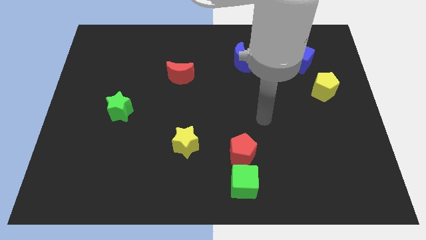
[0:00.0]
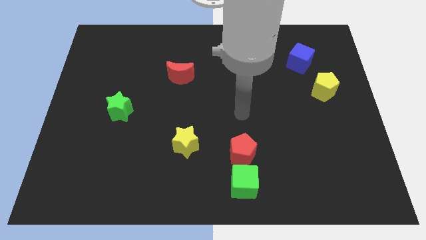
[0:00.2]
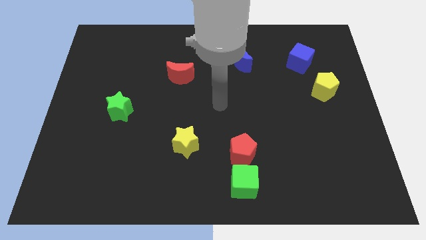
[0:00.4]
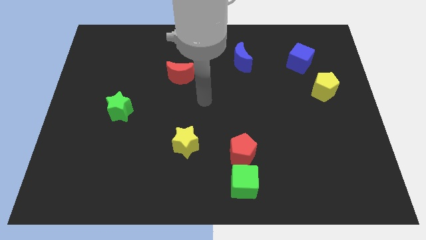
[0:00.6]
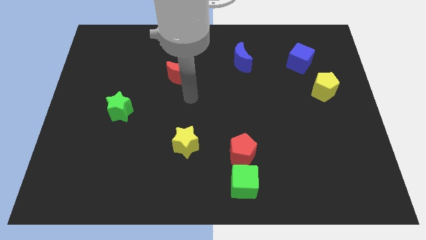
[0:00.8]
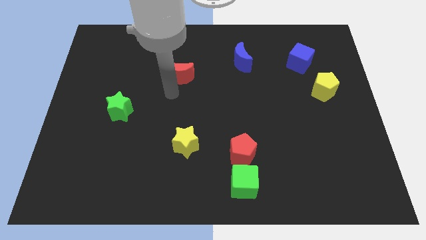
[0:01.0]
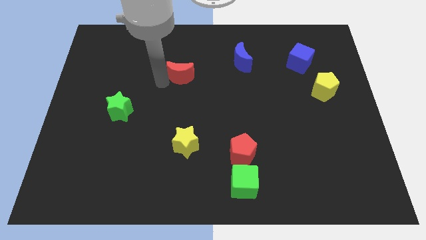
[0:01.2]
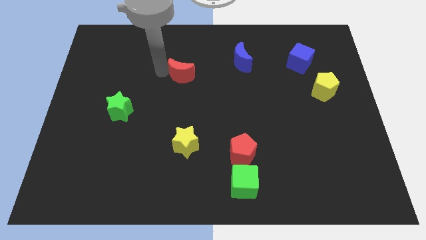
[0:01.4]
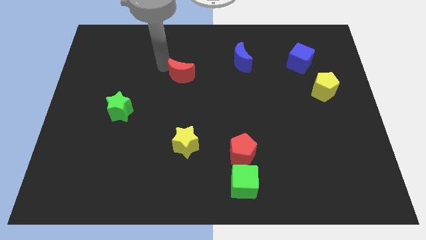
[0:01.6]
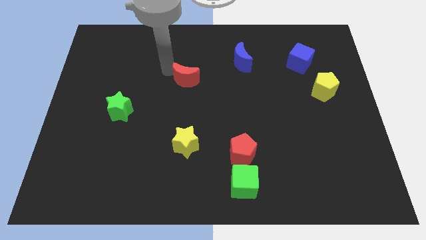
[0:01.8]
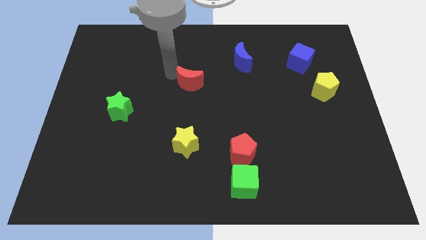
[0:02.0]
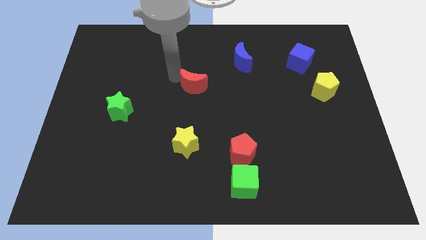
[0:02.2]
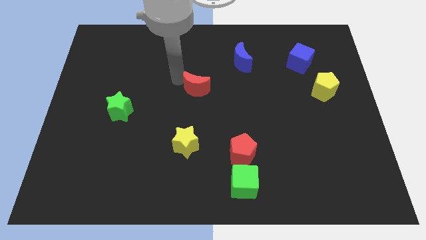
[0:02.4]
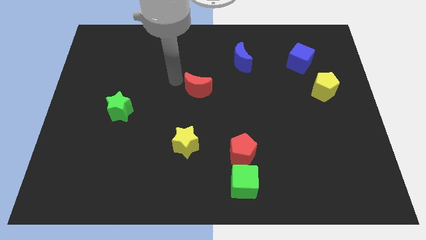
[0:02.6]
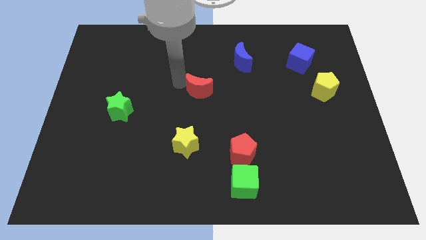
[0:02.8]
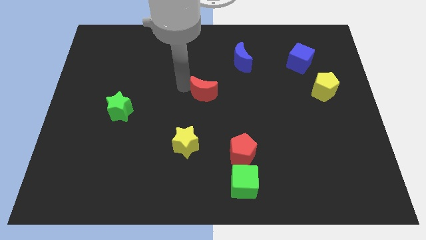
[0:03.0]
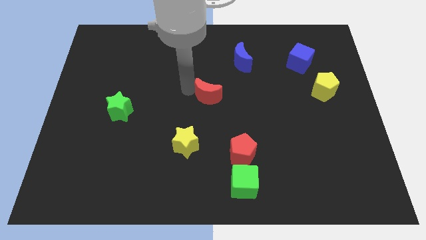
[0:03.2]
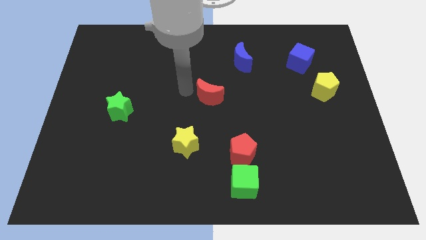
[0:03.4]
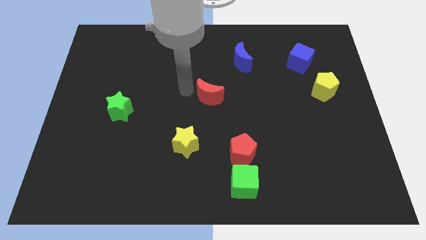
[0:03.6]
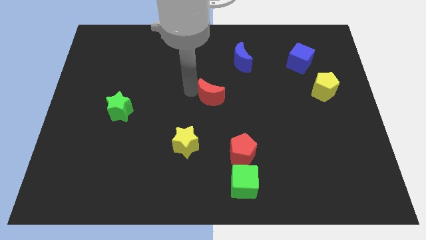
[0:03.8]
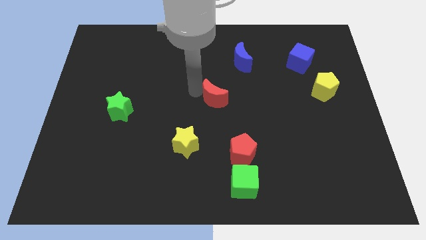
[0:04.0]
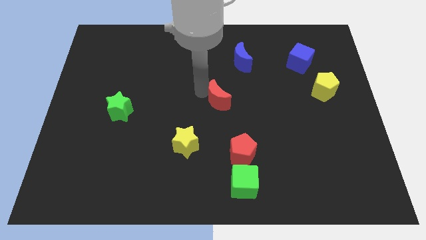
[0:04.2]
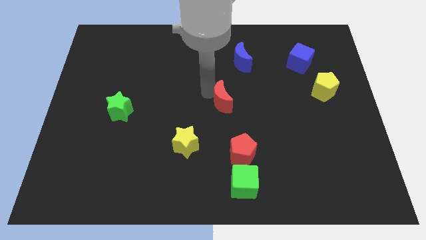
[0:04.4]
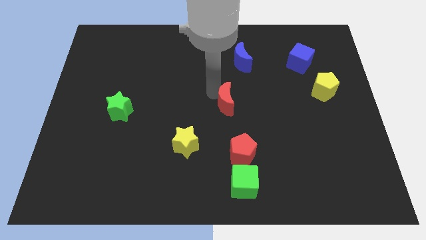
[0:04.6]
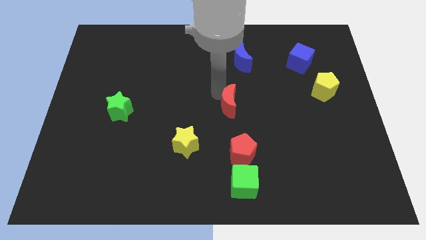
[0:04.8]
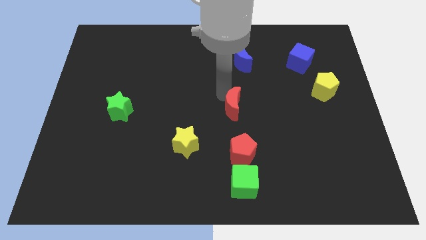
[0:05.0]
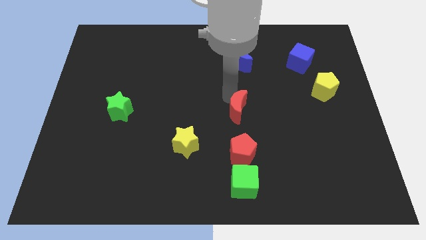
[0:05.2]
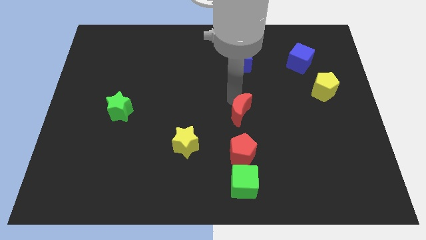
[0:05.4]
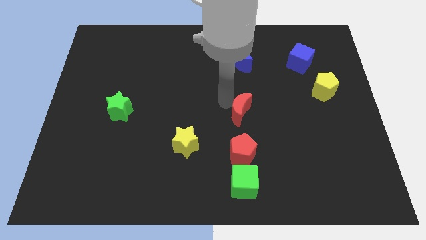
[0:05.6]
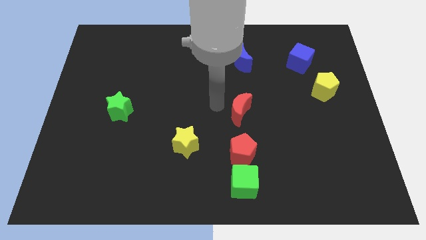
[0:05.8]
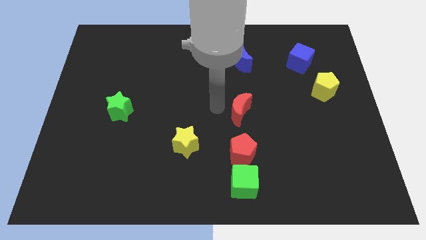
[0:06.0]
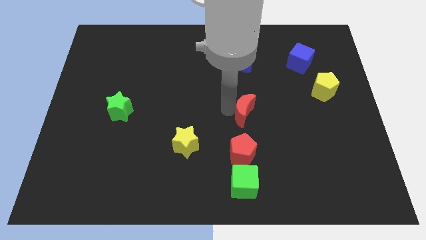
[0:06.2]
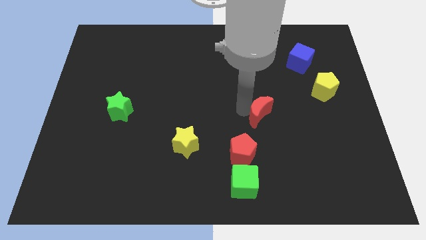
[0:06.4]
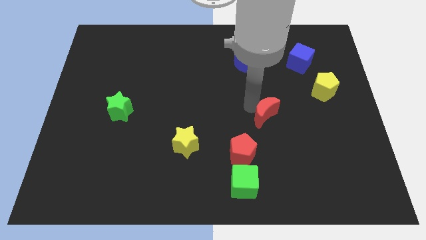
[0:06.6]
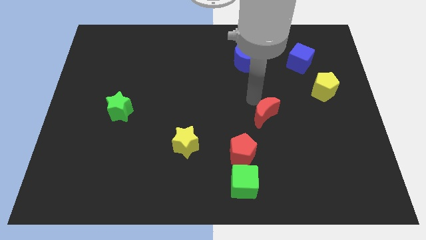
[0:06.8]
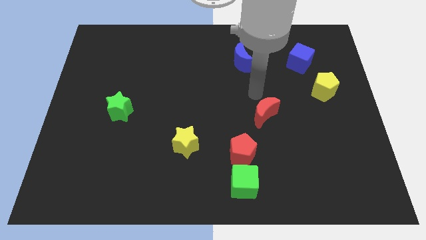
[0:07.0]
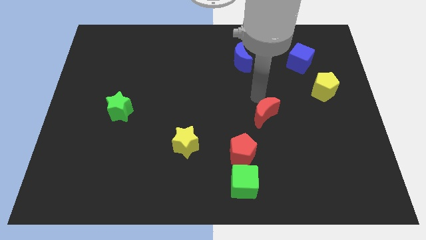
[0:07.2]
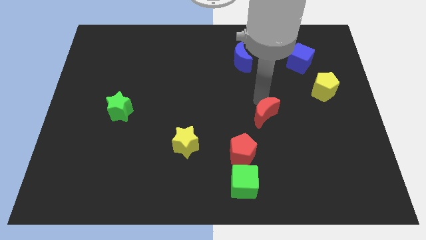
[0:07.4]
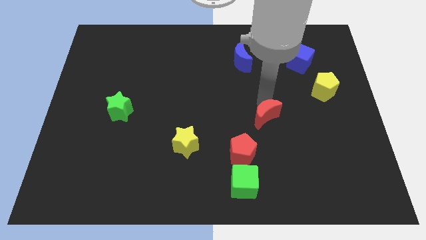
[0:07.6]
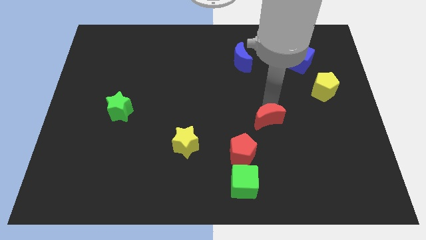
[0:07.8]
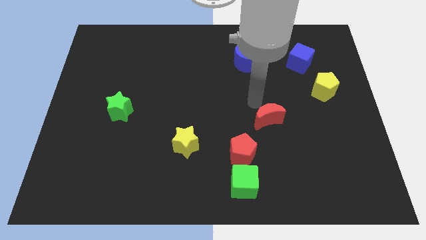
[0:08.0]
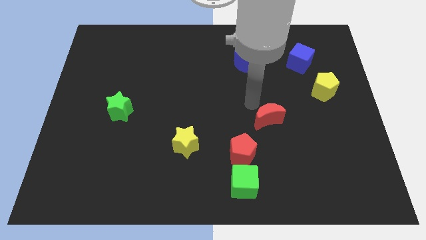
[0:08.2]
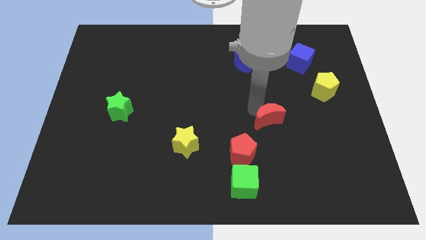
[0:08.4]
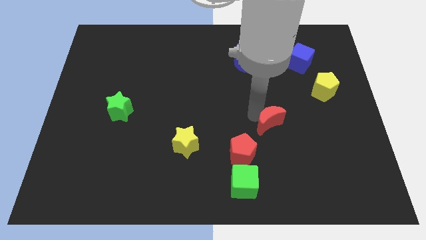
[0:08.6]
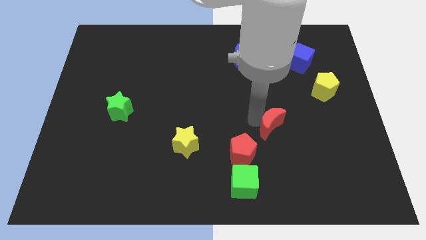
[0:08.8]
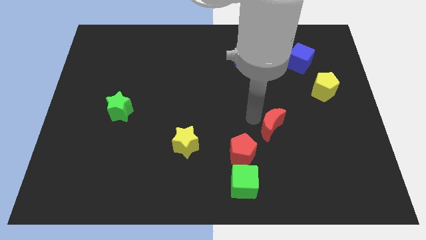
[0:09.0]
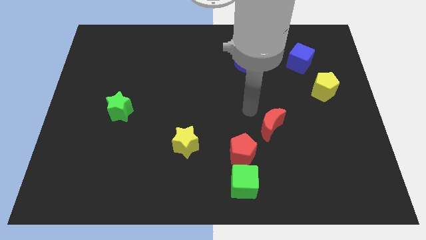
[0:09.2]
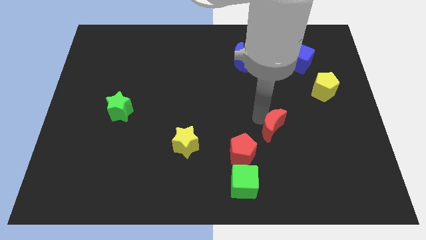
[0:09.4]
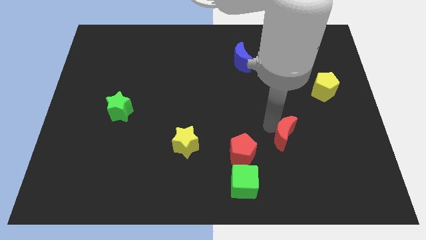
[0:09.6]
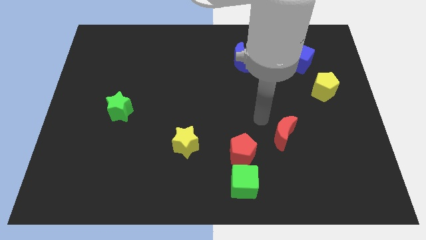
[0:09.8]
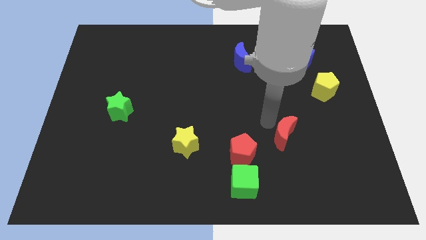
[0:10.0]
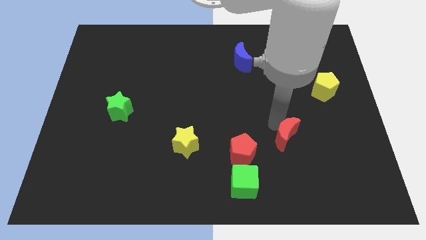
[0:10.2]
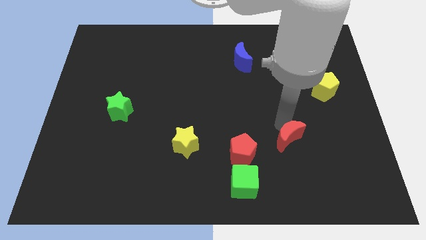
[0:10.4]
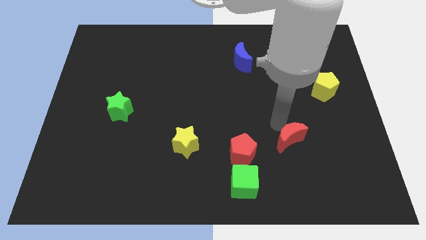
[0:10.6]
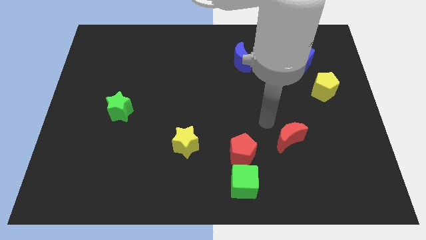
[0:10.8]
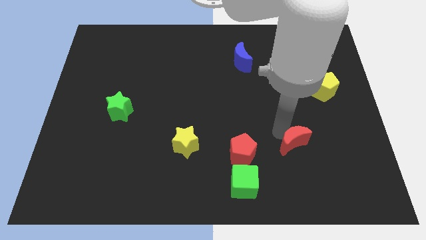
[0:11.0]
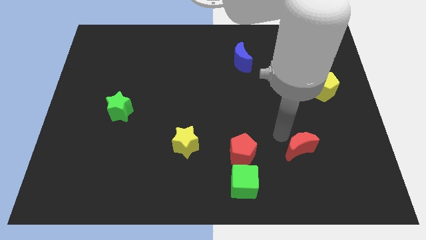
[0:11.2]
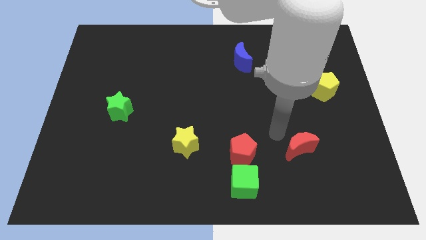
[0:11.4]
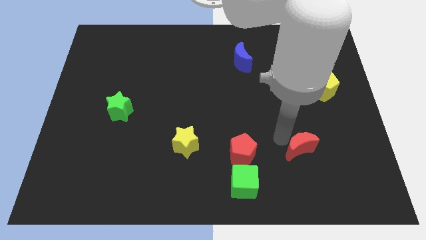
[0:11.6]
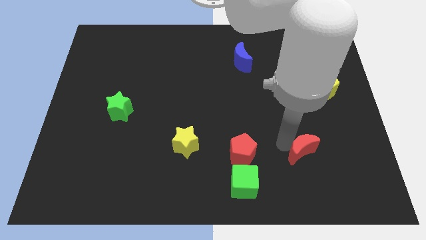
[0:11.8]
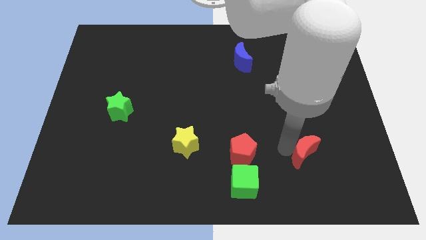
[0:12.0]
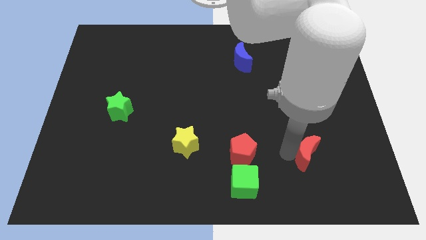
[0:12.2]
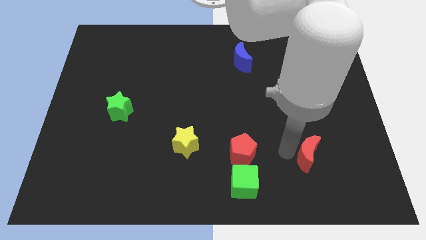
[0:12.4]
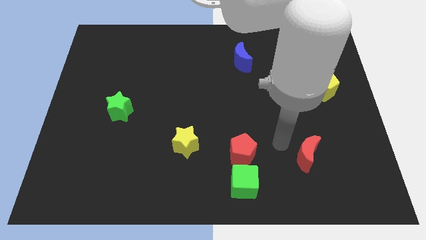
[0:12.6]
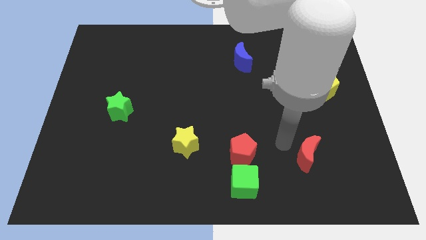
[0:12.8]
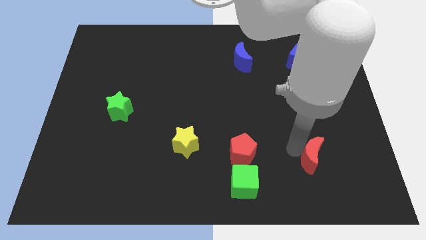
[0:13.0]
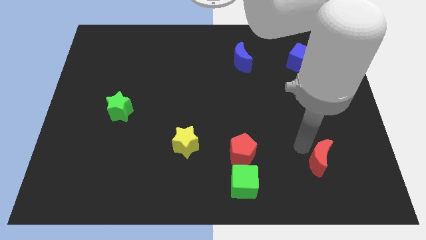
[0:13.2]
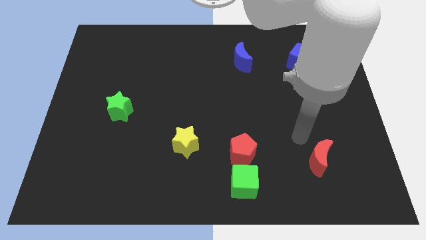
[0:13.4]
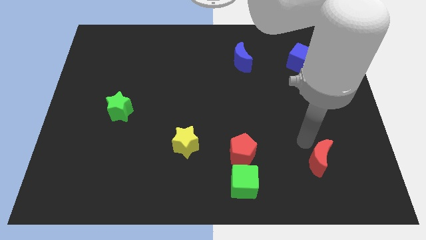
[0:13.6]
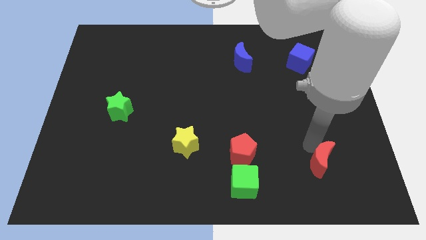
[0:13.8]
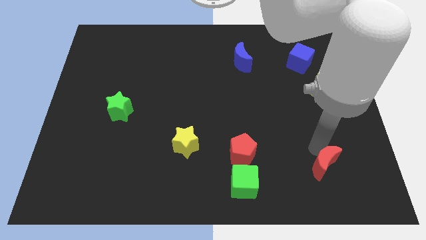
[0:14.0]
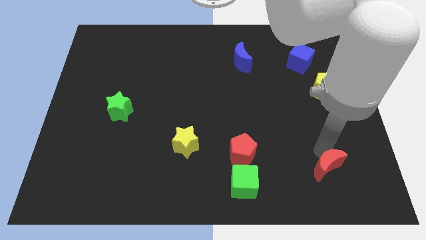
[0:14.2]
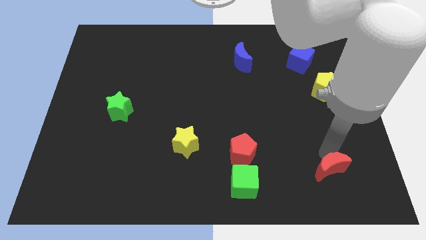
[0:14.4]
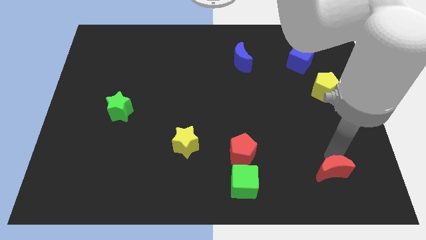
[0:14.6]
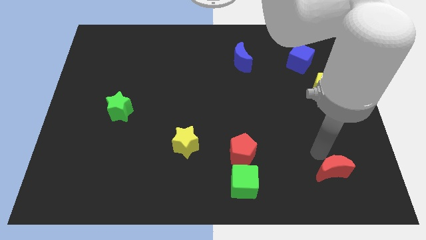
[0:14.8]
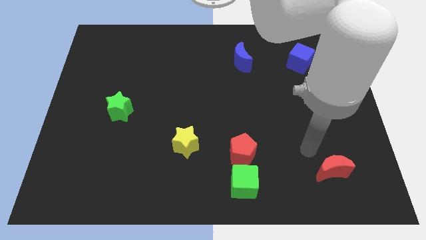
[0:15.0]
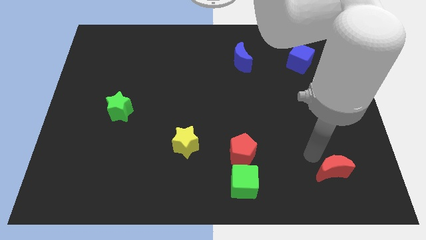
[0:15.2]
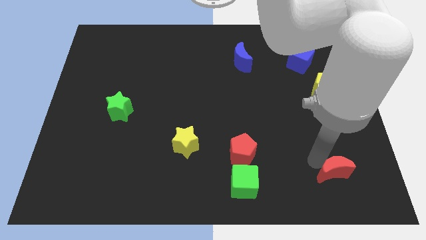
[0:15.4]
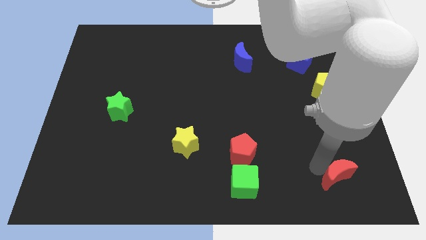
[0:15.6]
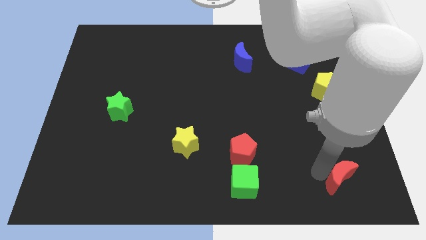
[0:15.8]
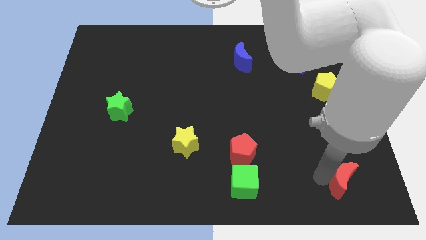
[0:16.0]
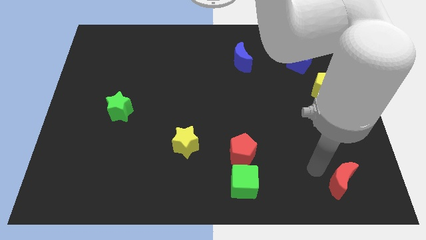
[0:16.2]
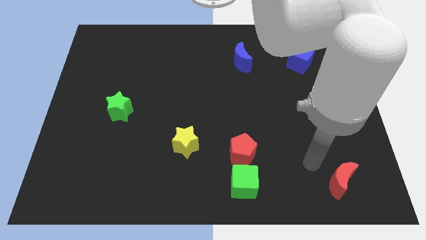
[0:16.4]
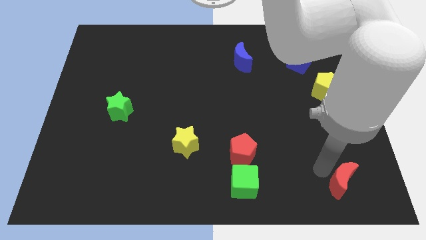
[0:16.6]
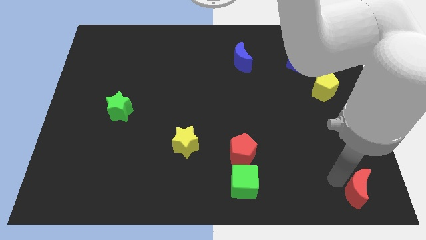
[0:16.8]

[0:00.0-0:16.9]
push the red moon to the bottom right
